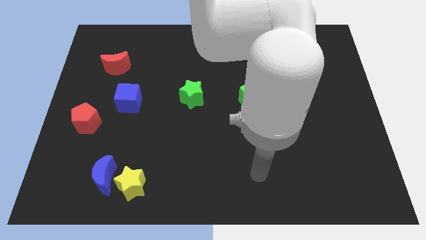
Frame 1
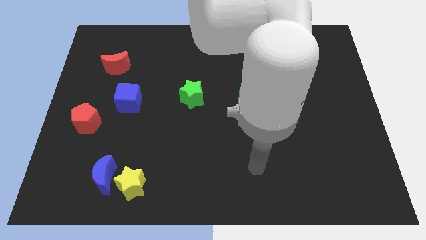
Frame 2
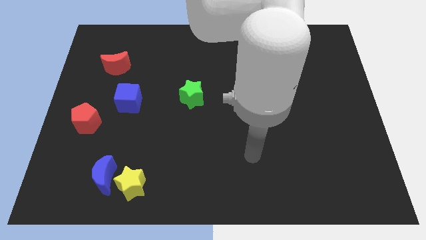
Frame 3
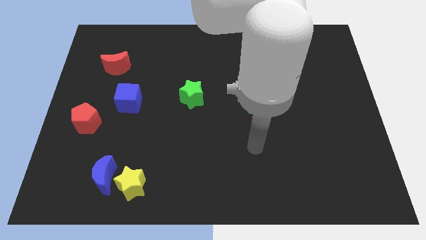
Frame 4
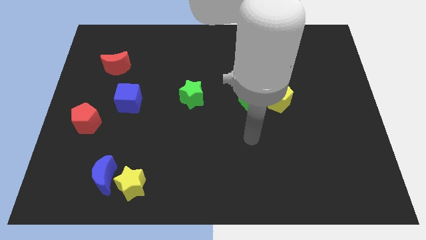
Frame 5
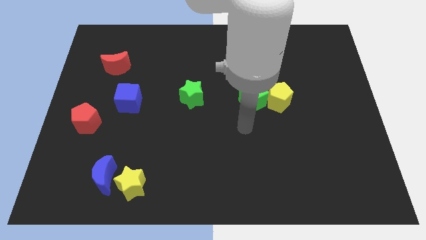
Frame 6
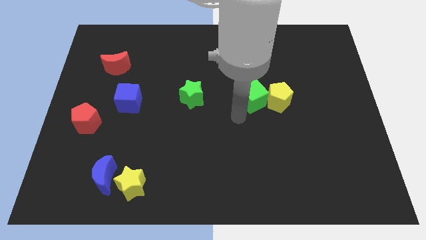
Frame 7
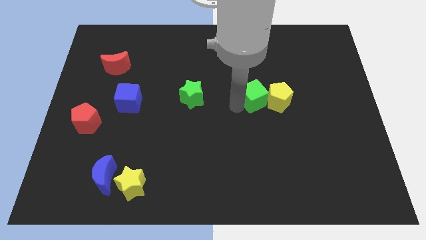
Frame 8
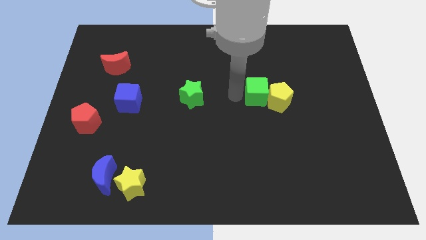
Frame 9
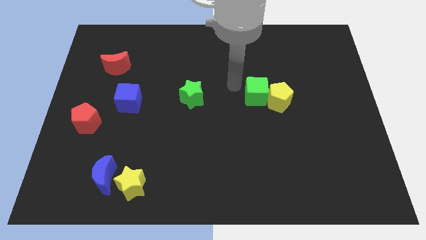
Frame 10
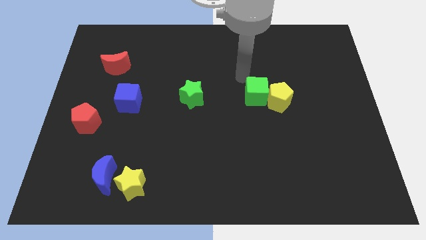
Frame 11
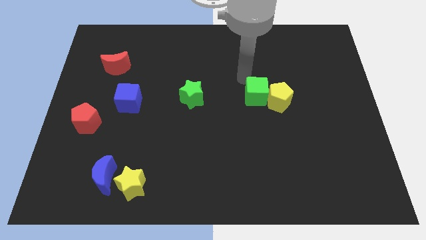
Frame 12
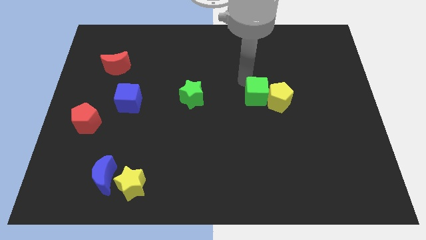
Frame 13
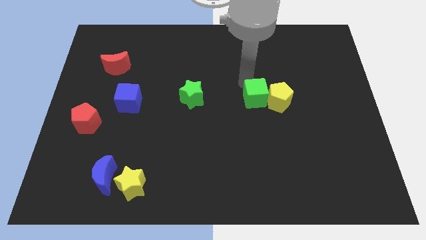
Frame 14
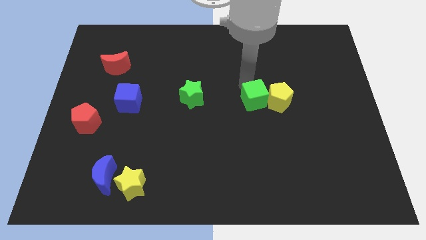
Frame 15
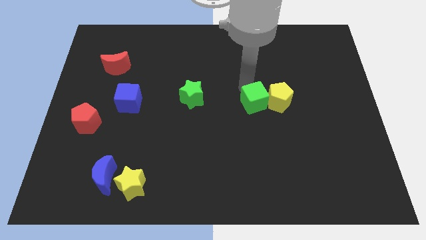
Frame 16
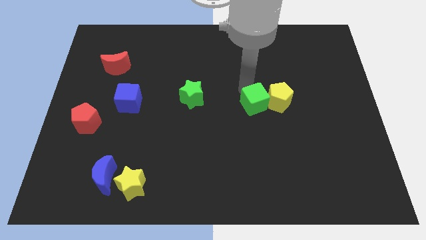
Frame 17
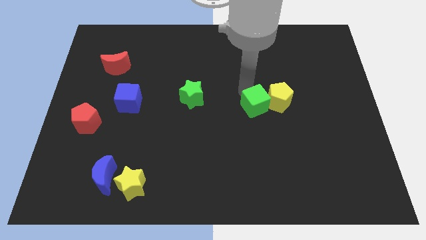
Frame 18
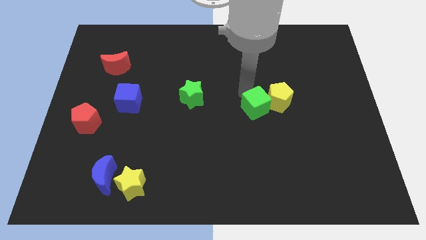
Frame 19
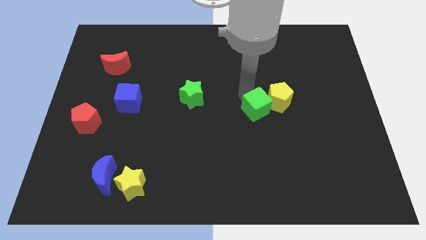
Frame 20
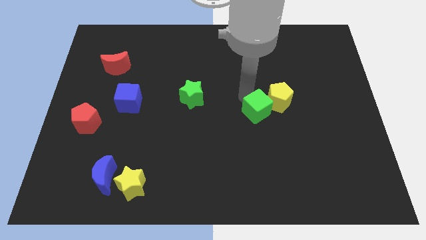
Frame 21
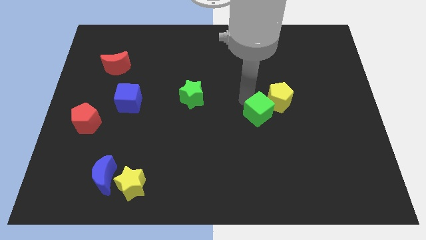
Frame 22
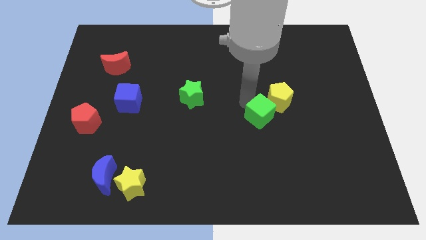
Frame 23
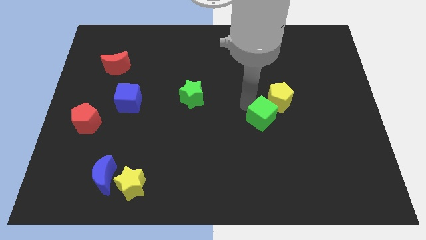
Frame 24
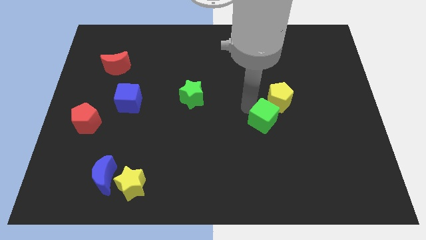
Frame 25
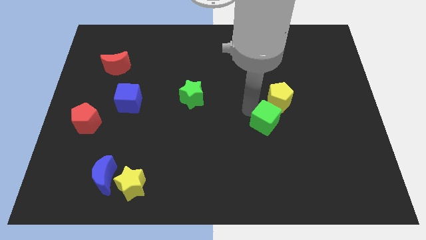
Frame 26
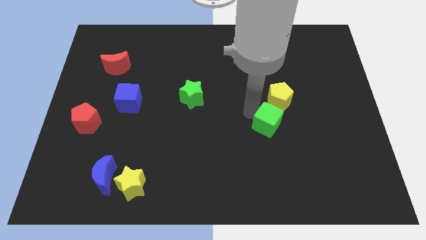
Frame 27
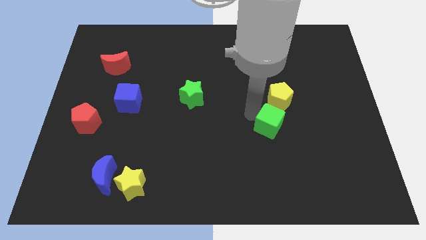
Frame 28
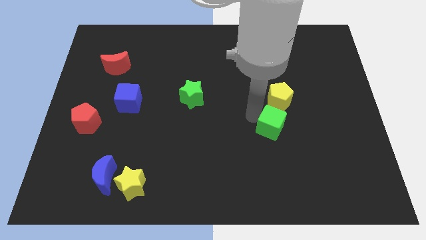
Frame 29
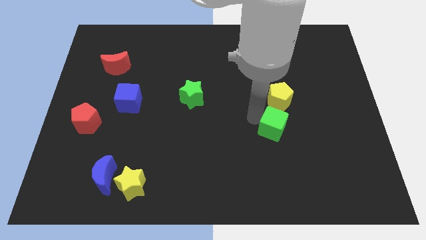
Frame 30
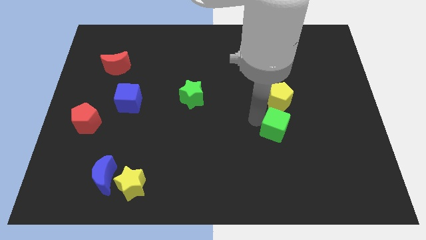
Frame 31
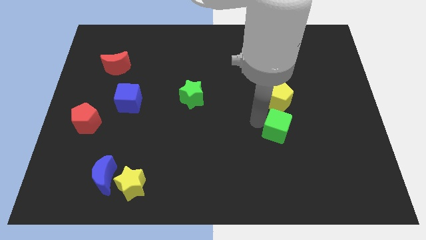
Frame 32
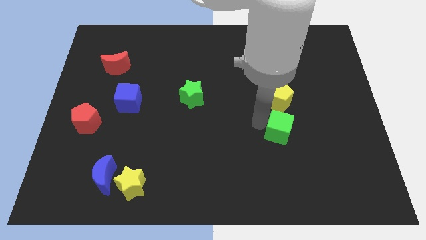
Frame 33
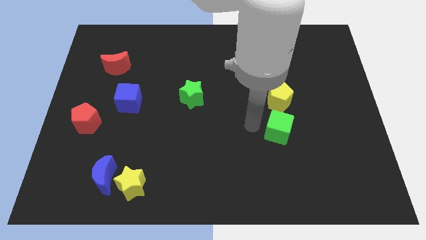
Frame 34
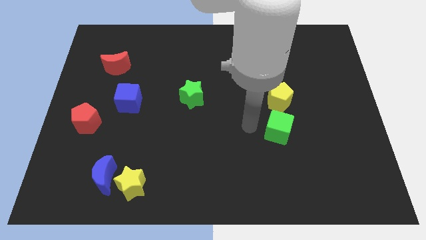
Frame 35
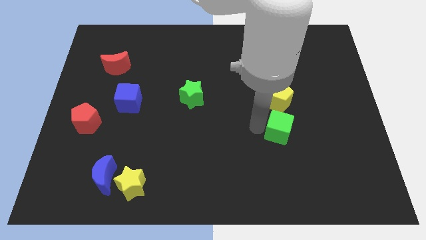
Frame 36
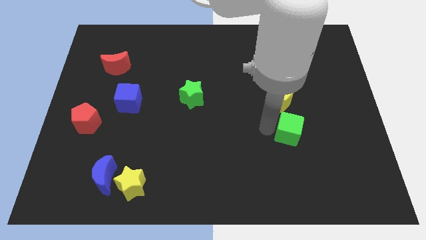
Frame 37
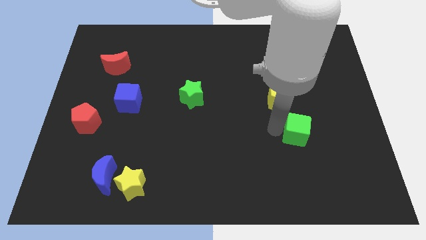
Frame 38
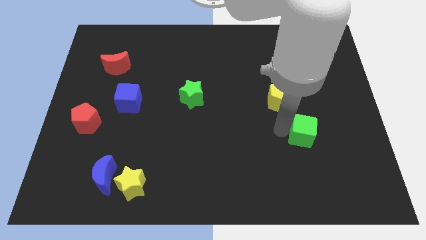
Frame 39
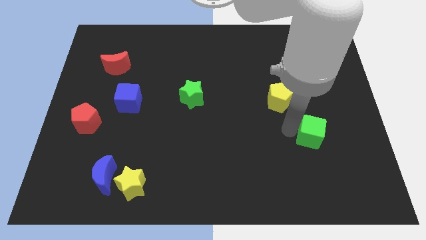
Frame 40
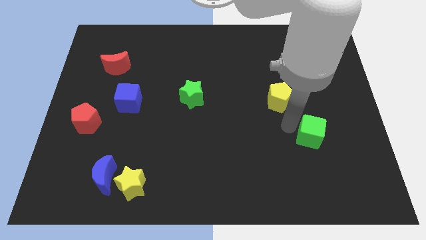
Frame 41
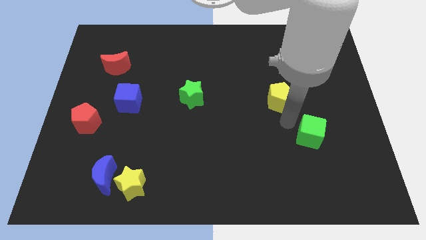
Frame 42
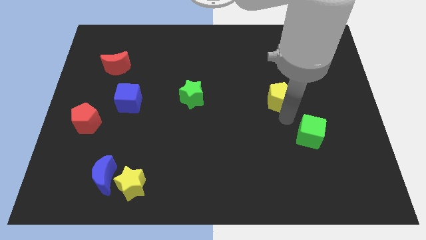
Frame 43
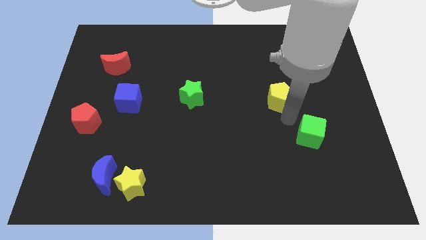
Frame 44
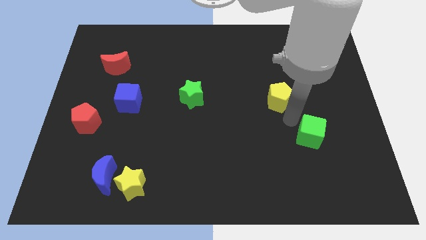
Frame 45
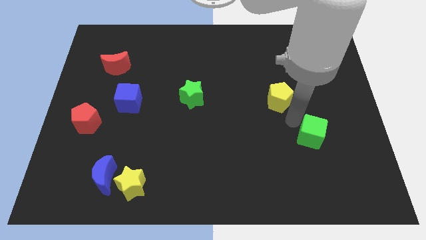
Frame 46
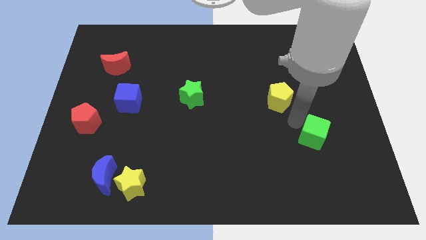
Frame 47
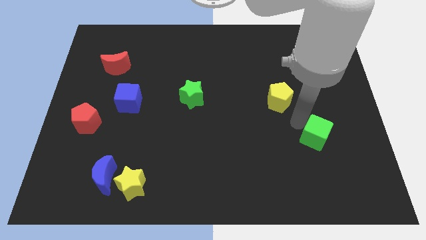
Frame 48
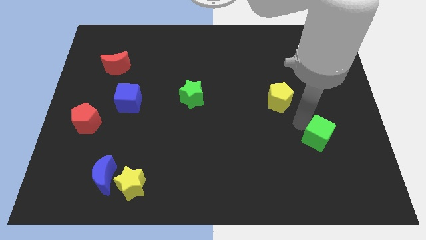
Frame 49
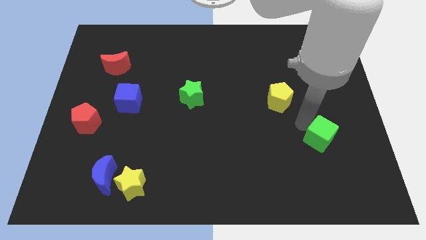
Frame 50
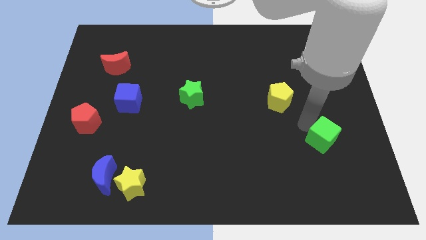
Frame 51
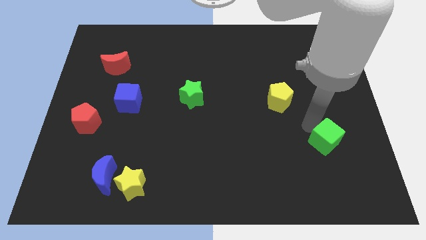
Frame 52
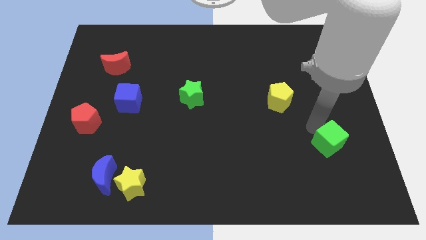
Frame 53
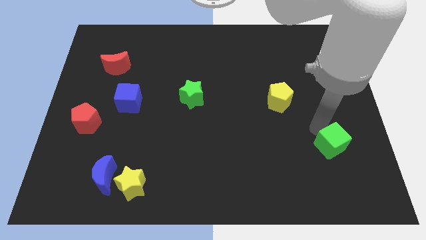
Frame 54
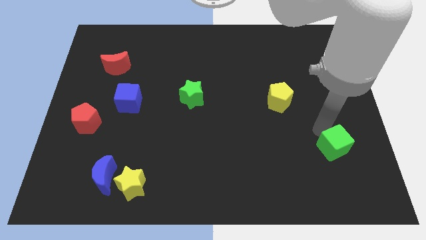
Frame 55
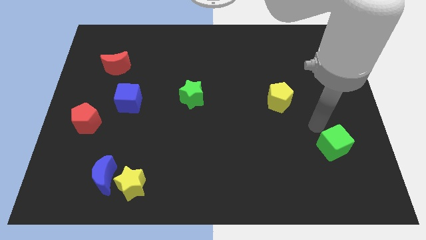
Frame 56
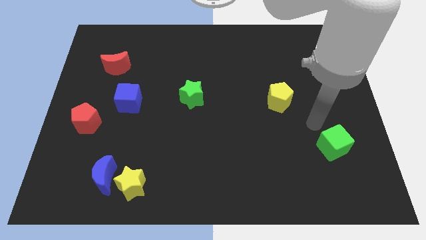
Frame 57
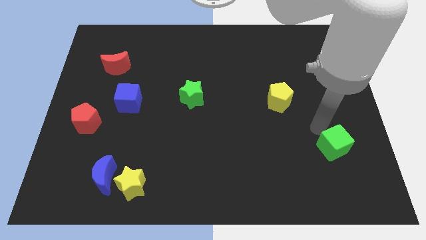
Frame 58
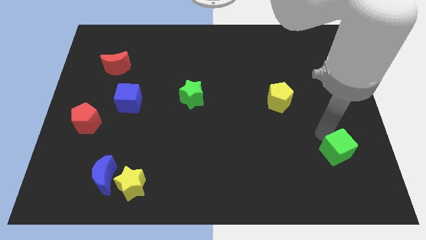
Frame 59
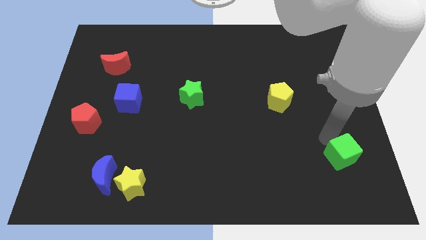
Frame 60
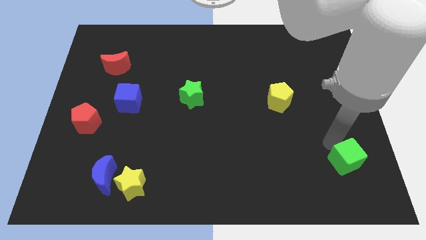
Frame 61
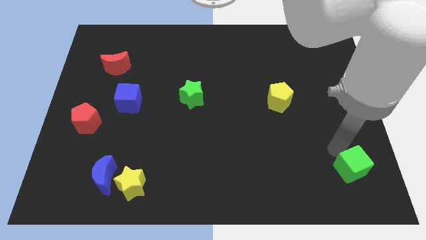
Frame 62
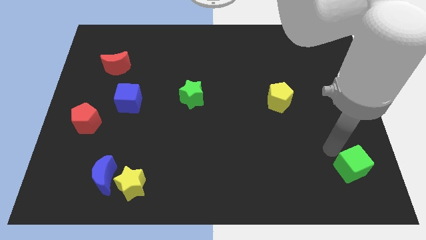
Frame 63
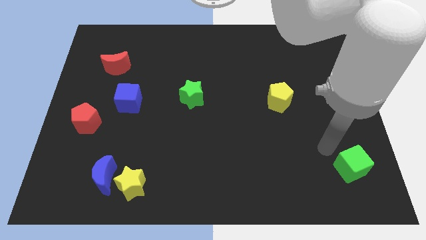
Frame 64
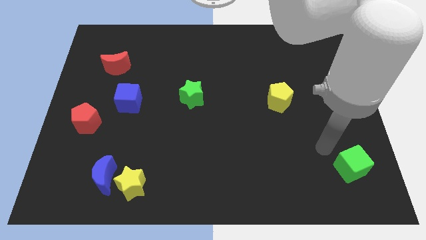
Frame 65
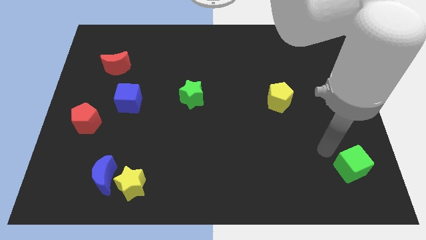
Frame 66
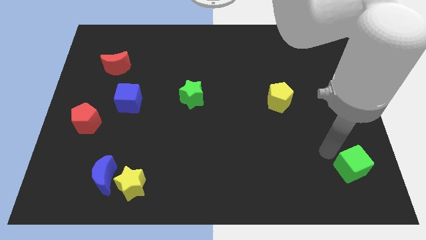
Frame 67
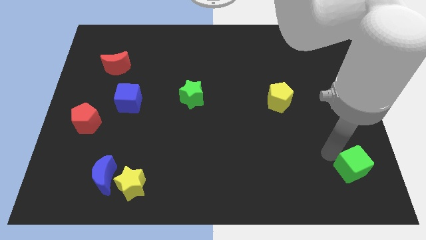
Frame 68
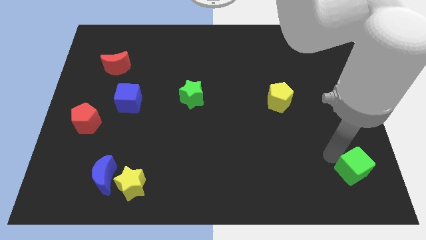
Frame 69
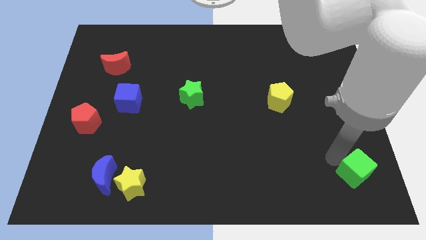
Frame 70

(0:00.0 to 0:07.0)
put the green cube to the lower right corner
